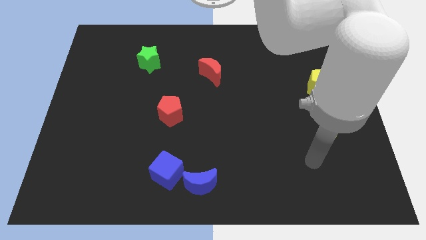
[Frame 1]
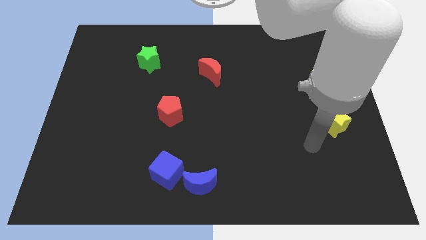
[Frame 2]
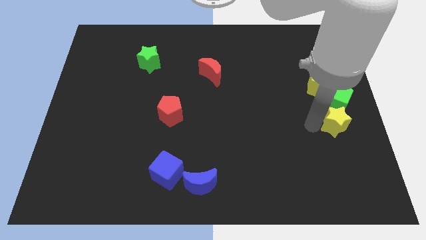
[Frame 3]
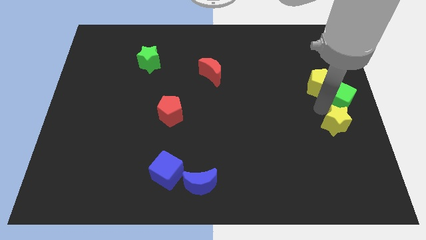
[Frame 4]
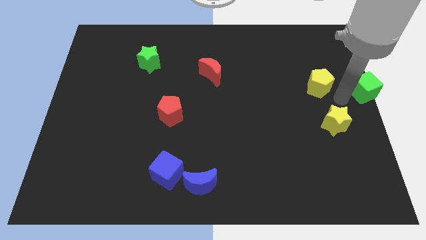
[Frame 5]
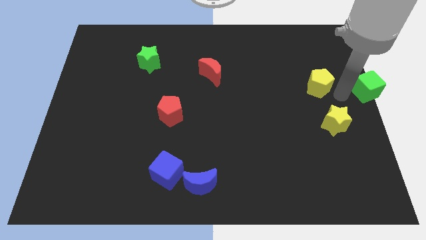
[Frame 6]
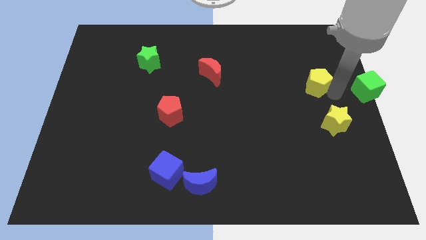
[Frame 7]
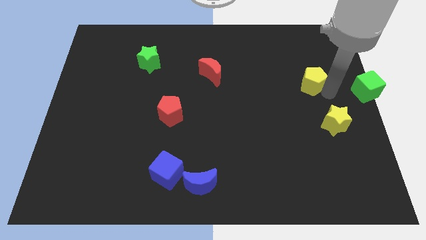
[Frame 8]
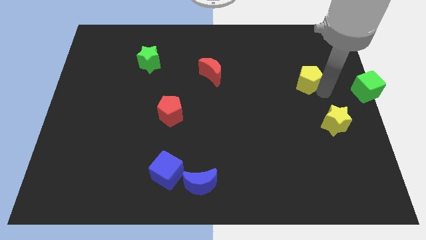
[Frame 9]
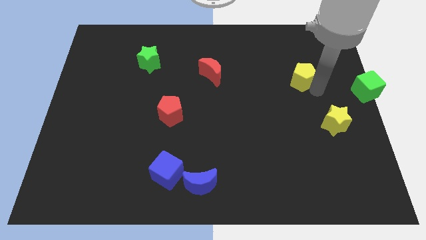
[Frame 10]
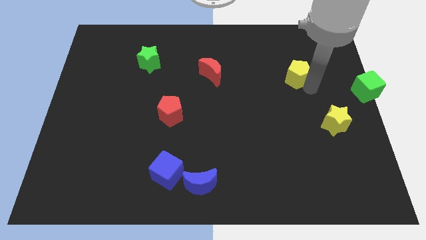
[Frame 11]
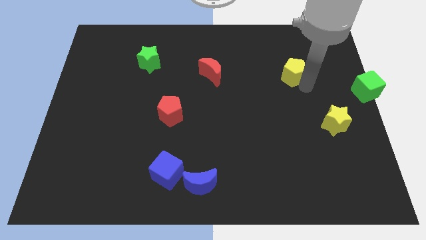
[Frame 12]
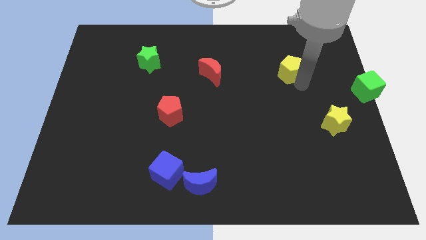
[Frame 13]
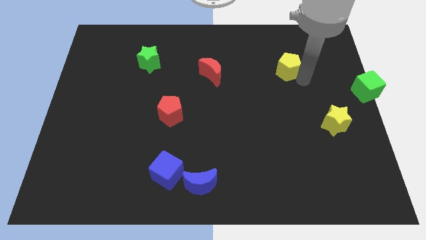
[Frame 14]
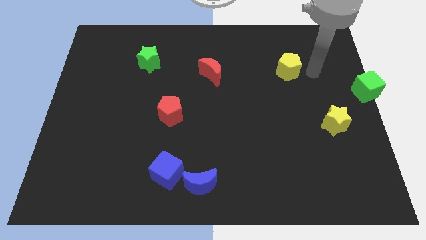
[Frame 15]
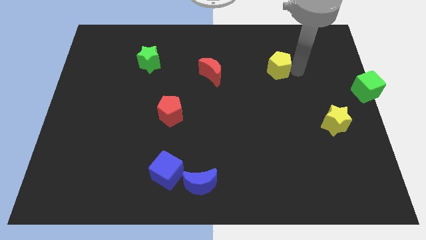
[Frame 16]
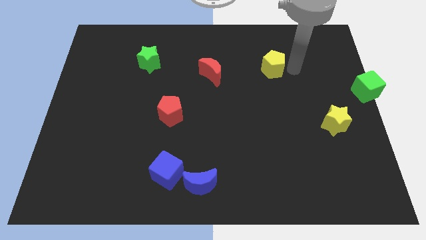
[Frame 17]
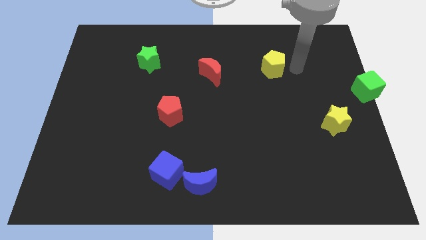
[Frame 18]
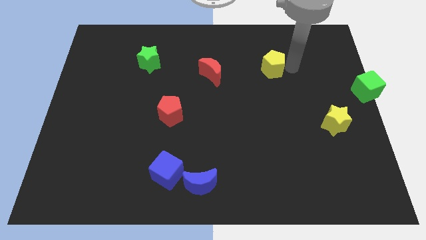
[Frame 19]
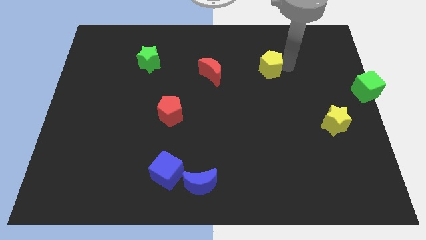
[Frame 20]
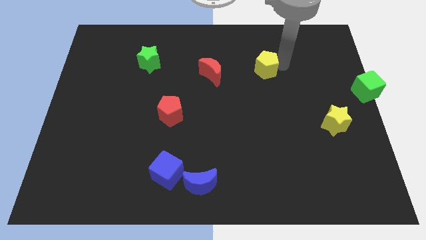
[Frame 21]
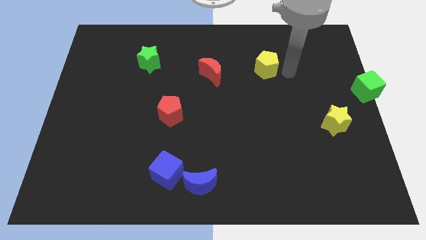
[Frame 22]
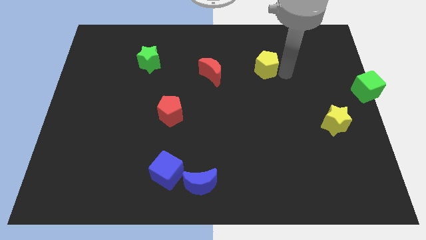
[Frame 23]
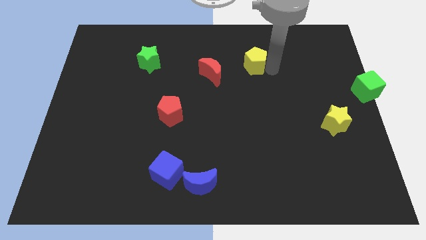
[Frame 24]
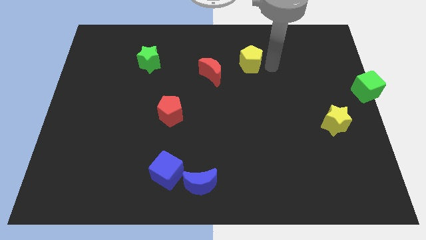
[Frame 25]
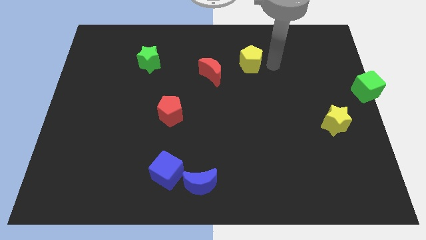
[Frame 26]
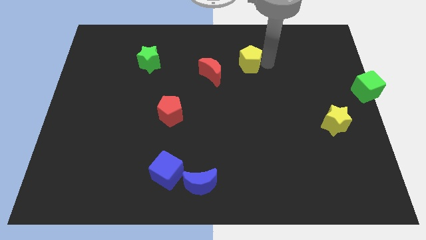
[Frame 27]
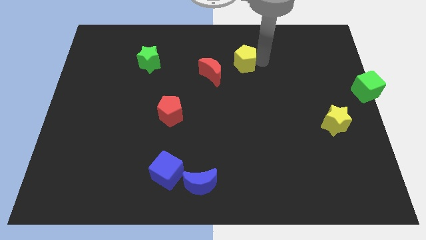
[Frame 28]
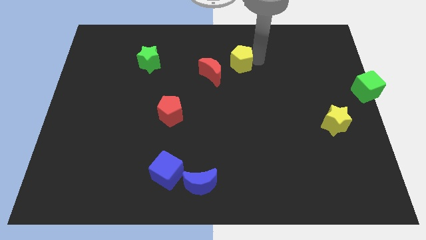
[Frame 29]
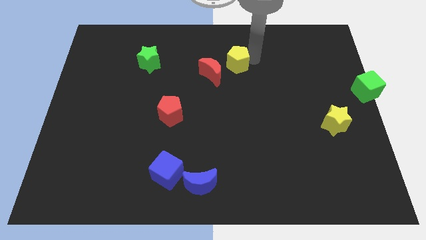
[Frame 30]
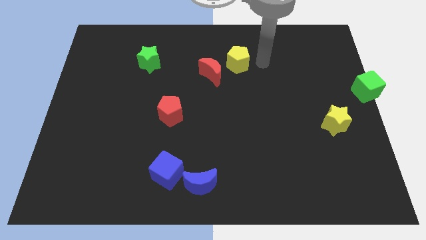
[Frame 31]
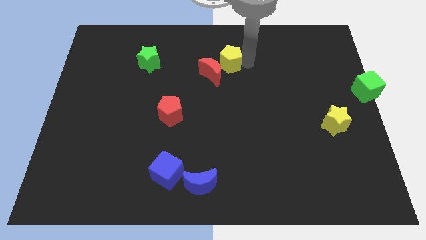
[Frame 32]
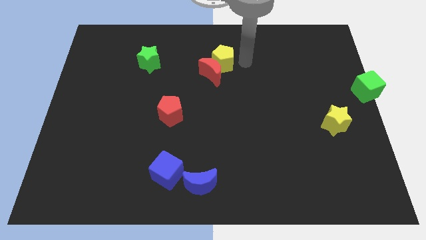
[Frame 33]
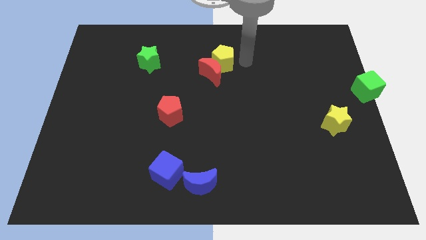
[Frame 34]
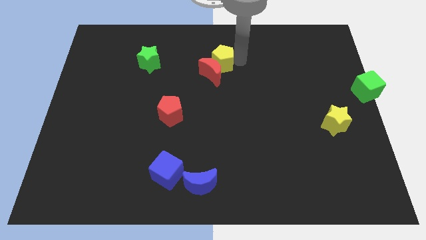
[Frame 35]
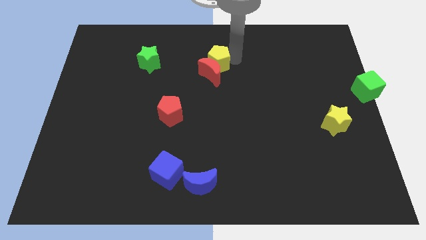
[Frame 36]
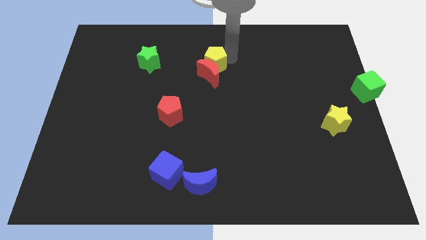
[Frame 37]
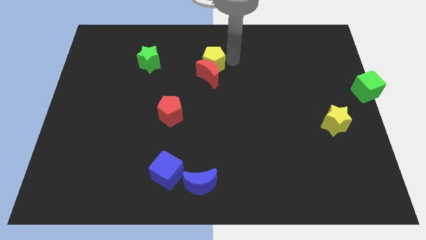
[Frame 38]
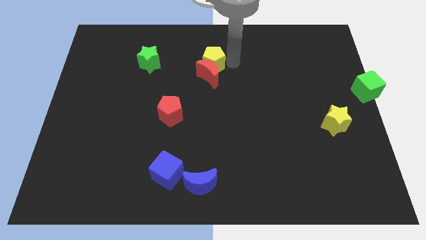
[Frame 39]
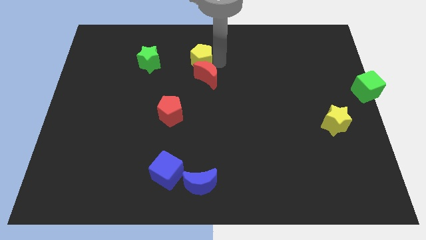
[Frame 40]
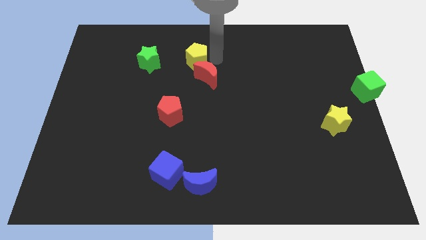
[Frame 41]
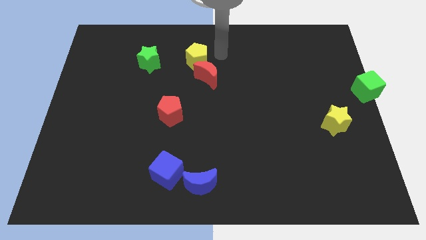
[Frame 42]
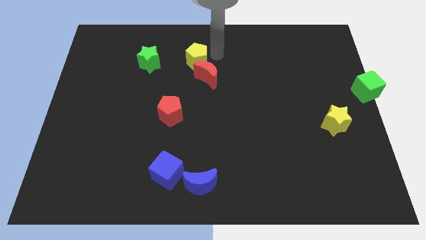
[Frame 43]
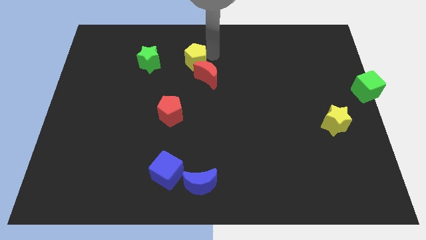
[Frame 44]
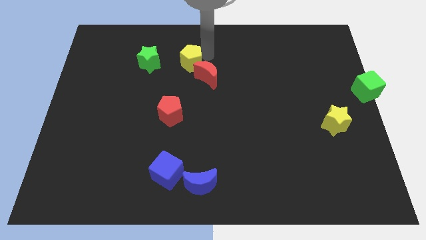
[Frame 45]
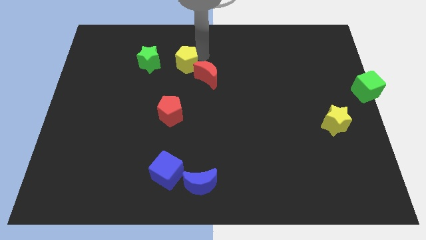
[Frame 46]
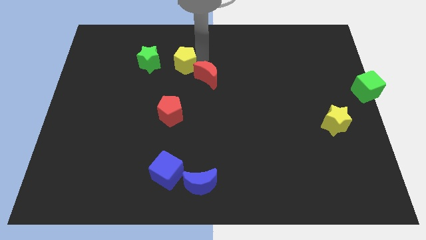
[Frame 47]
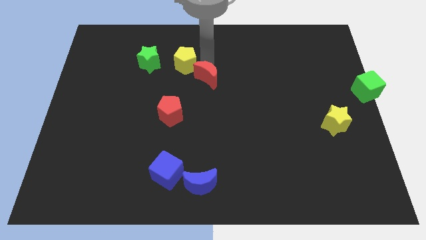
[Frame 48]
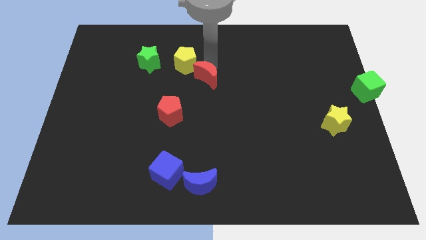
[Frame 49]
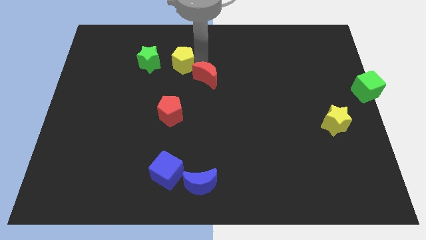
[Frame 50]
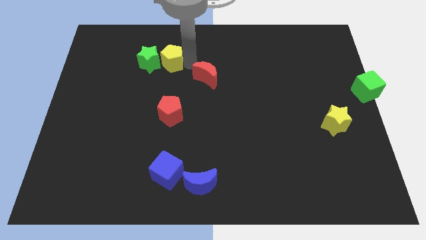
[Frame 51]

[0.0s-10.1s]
slide the yellow pentagon close to the green star

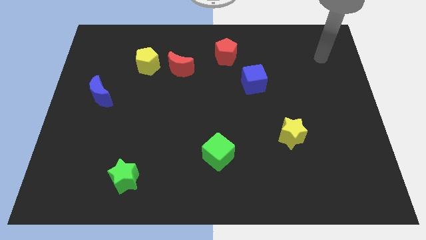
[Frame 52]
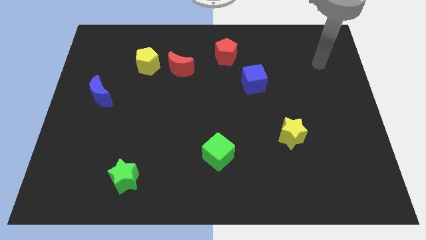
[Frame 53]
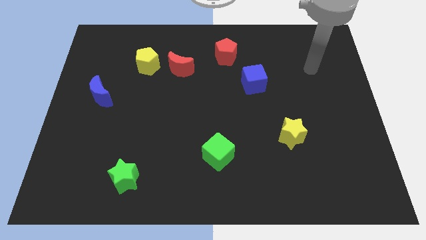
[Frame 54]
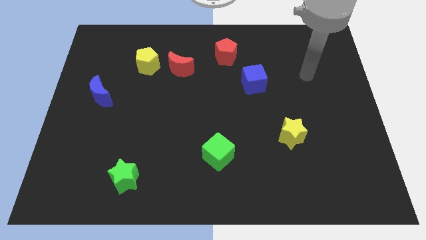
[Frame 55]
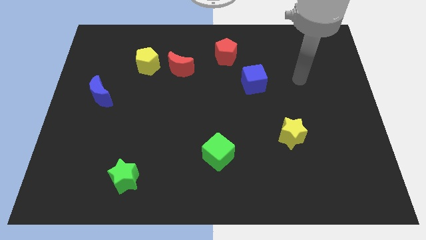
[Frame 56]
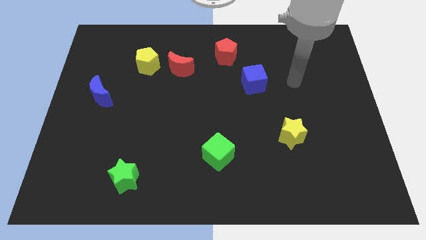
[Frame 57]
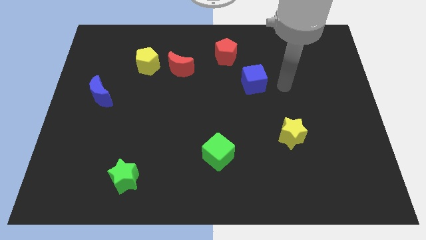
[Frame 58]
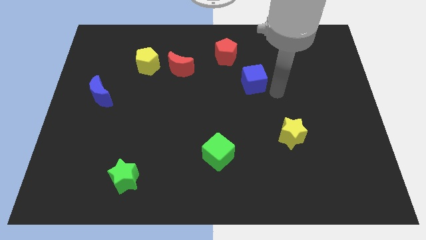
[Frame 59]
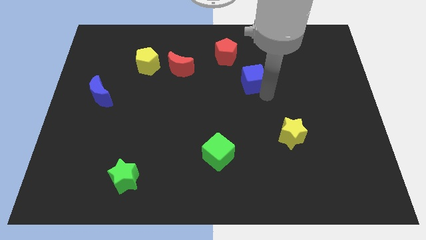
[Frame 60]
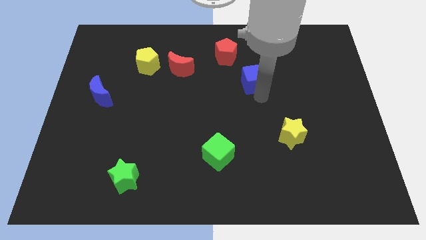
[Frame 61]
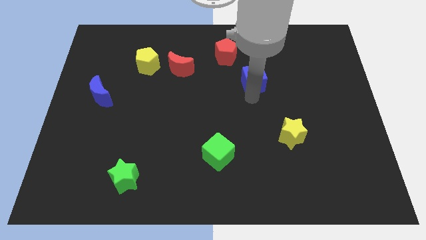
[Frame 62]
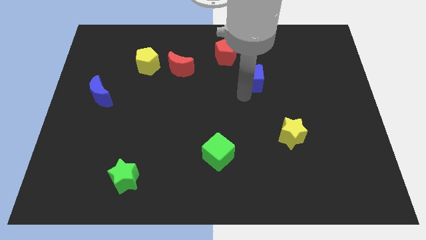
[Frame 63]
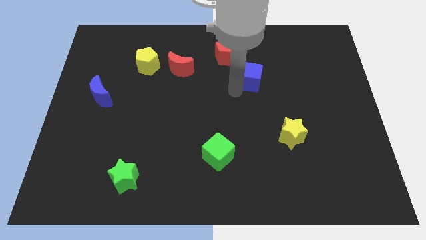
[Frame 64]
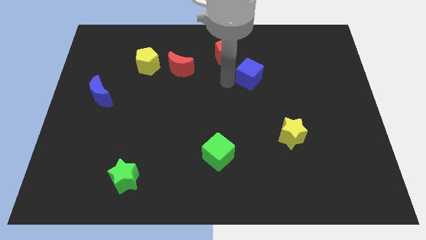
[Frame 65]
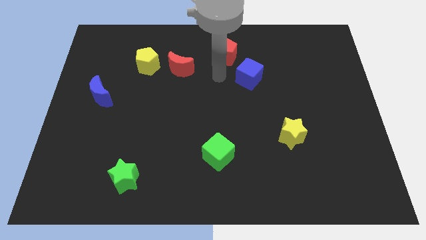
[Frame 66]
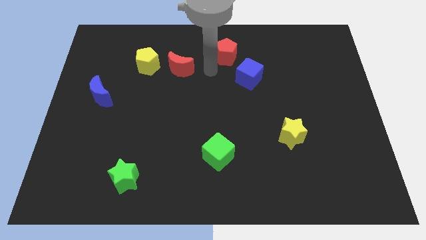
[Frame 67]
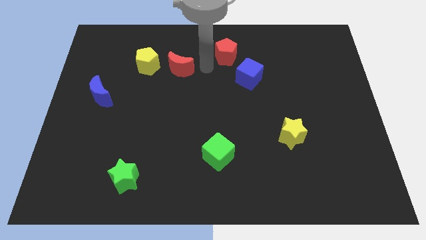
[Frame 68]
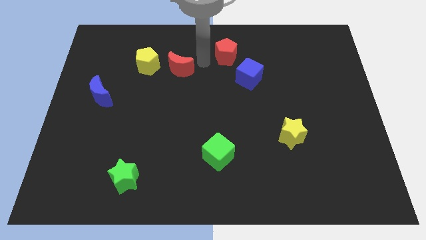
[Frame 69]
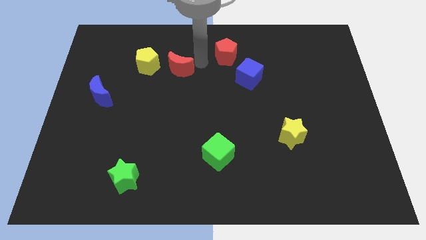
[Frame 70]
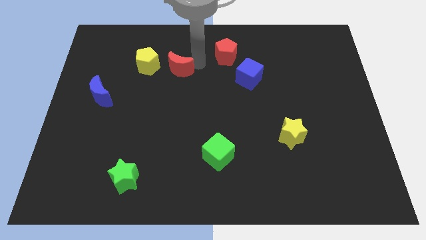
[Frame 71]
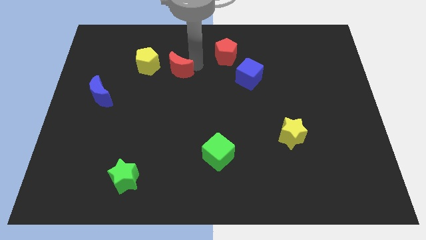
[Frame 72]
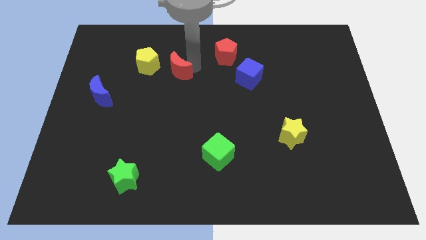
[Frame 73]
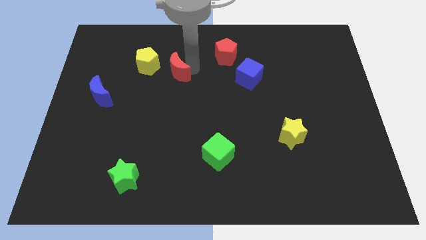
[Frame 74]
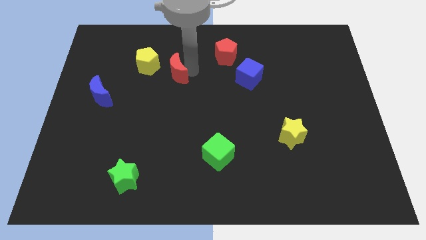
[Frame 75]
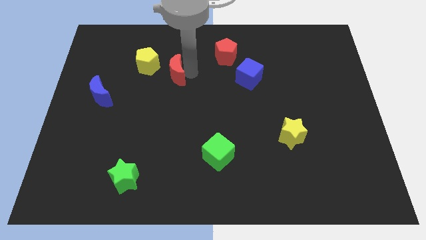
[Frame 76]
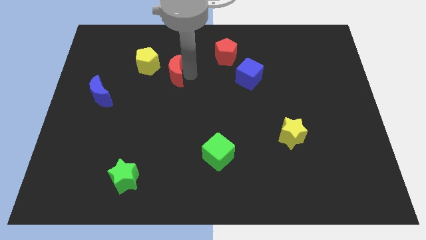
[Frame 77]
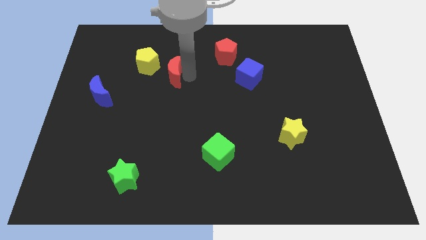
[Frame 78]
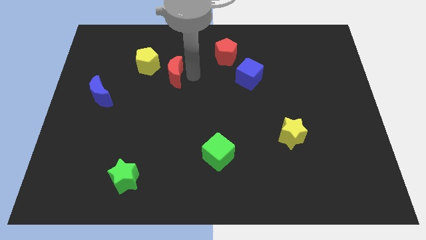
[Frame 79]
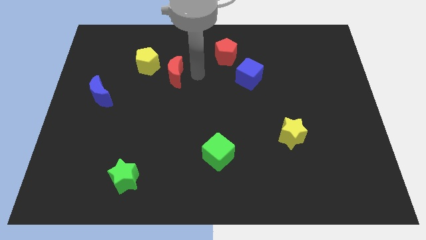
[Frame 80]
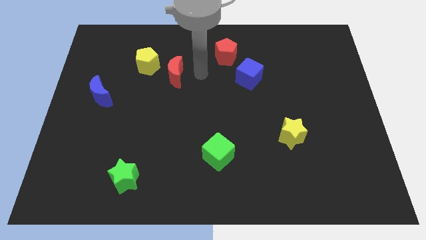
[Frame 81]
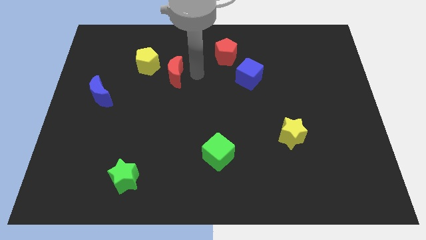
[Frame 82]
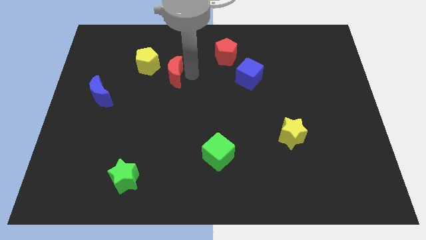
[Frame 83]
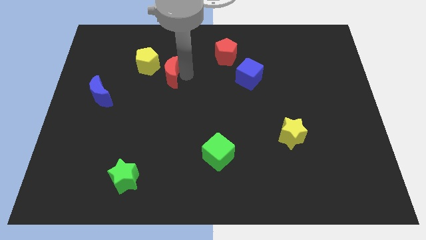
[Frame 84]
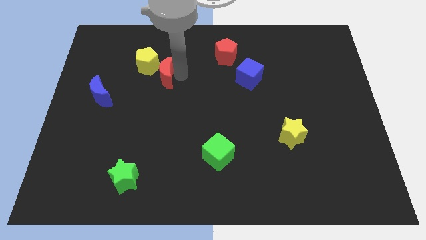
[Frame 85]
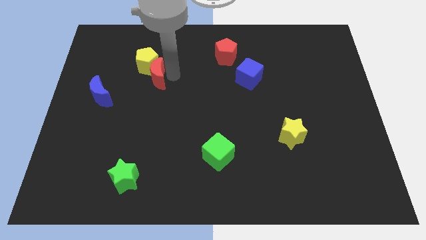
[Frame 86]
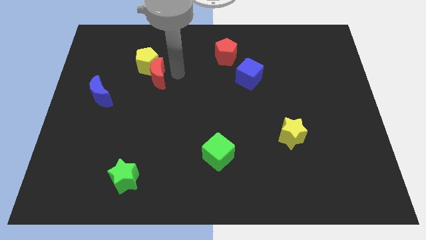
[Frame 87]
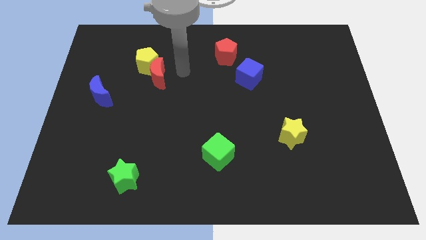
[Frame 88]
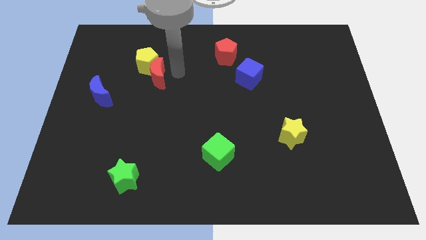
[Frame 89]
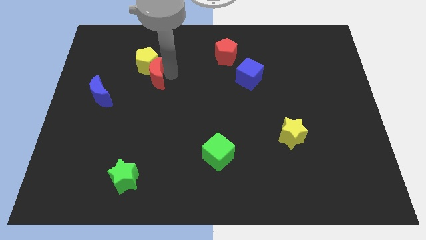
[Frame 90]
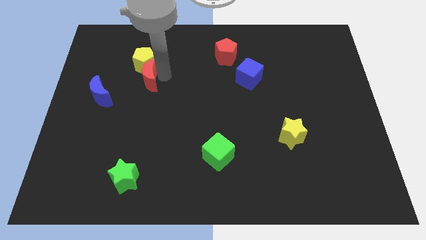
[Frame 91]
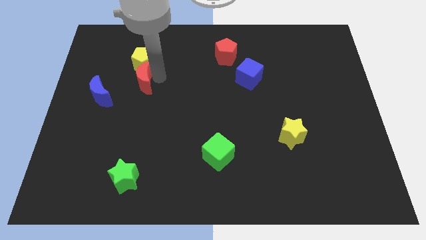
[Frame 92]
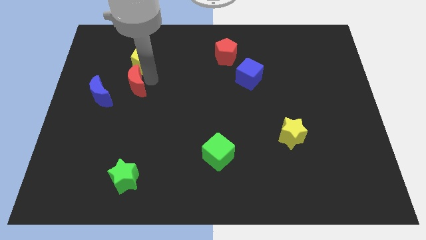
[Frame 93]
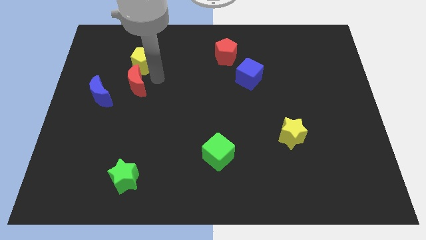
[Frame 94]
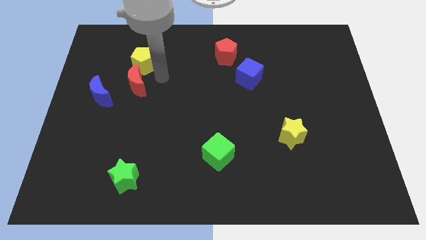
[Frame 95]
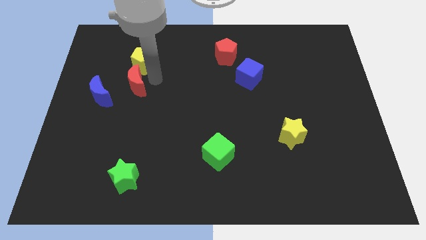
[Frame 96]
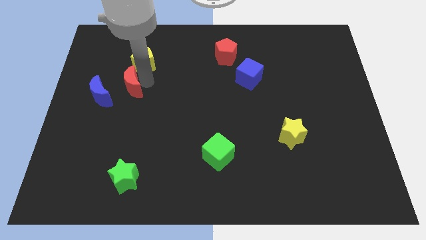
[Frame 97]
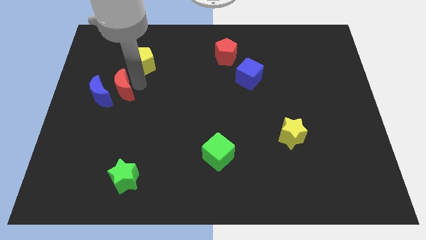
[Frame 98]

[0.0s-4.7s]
move the red moon next to the blue moon
